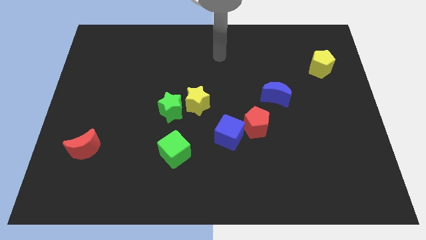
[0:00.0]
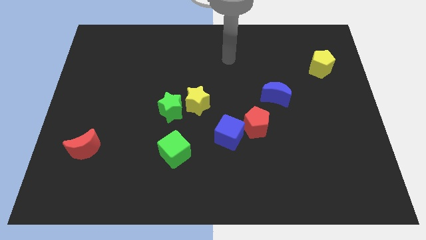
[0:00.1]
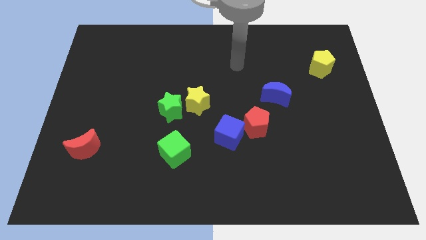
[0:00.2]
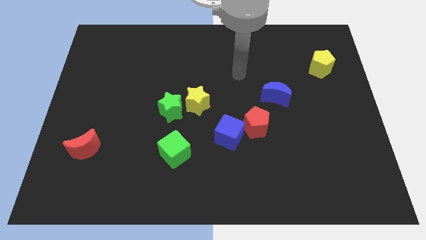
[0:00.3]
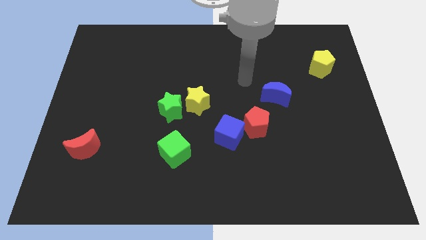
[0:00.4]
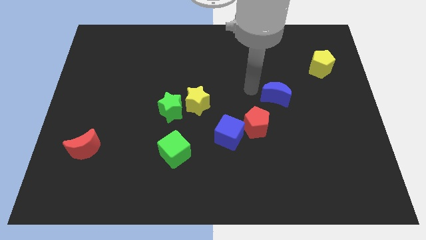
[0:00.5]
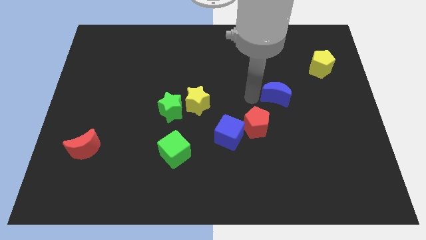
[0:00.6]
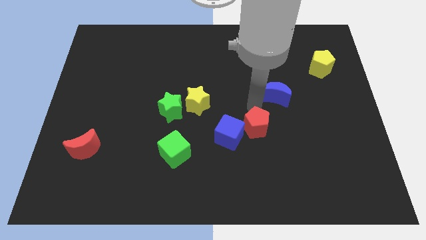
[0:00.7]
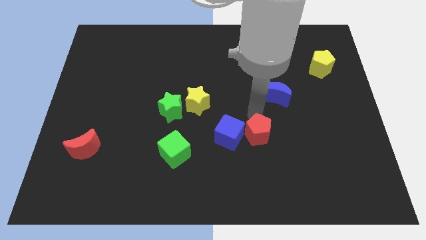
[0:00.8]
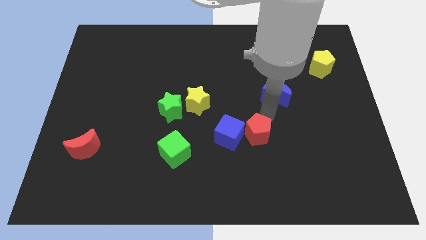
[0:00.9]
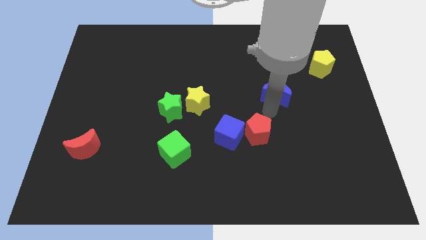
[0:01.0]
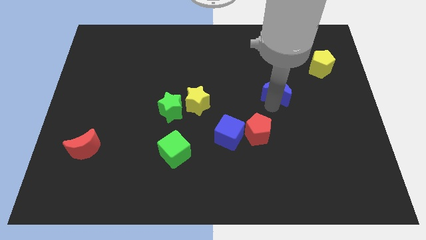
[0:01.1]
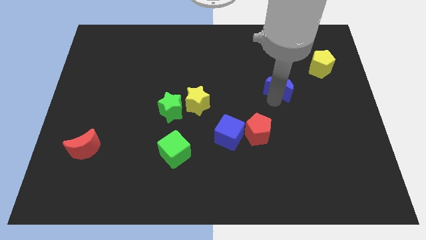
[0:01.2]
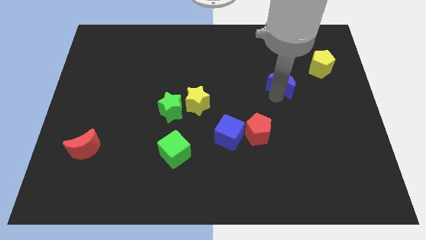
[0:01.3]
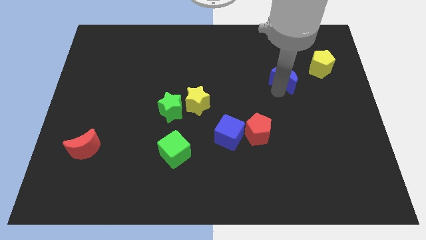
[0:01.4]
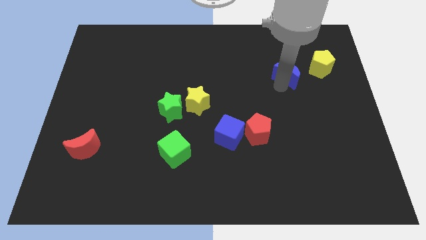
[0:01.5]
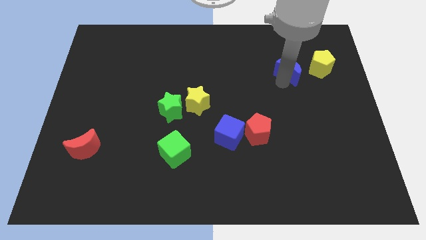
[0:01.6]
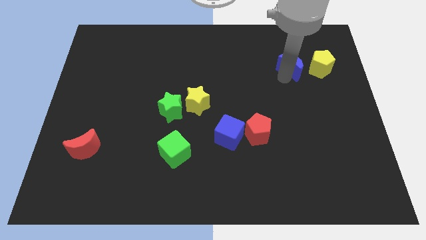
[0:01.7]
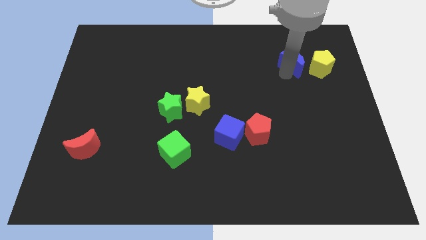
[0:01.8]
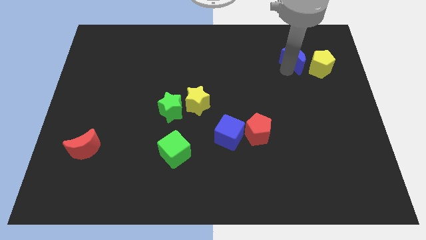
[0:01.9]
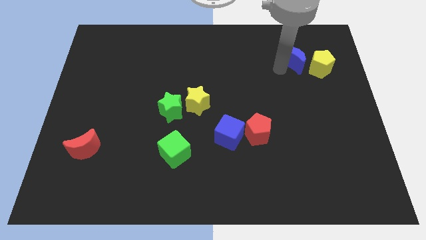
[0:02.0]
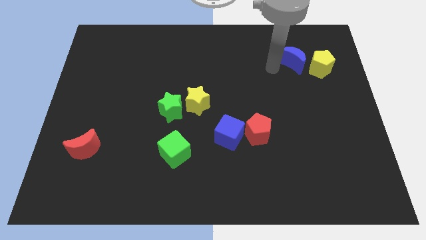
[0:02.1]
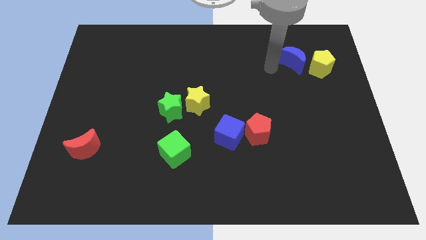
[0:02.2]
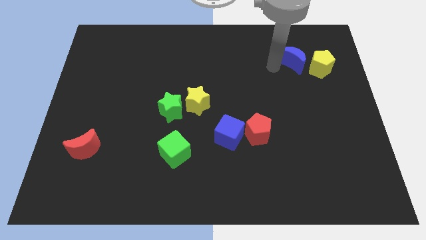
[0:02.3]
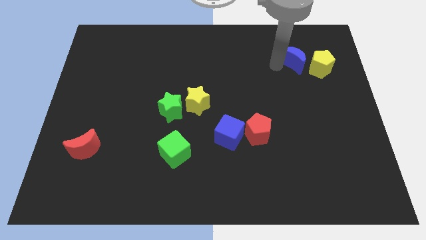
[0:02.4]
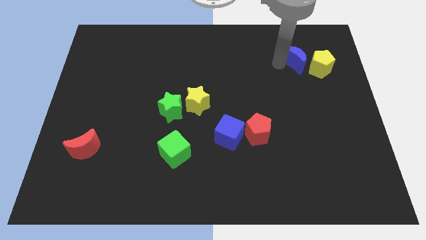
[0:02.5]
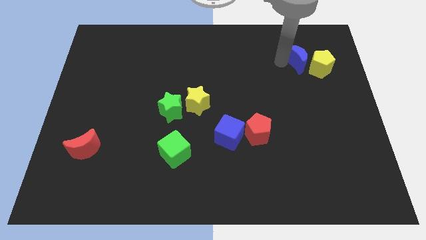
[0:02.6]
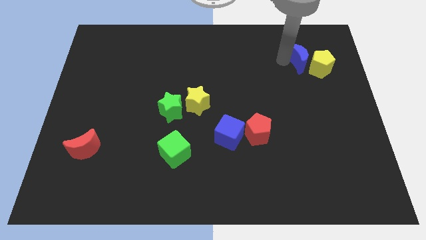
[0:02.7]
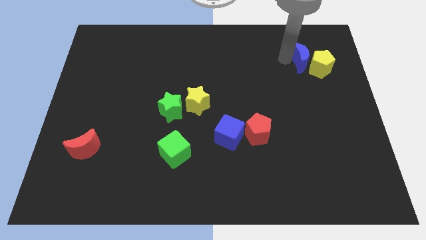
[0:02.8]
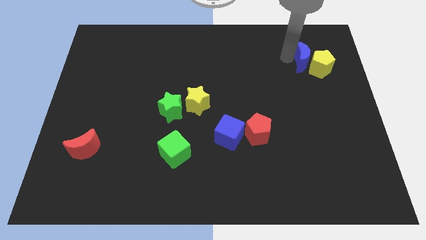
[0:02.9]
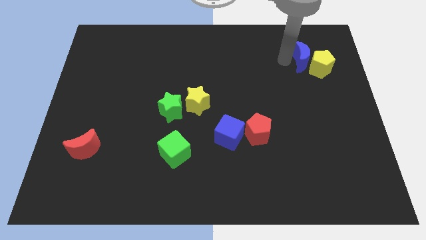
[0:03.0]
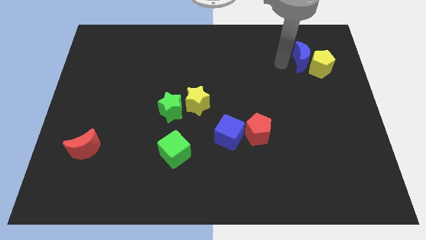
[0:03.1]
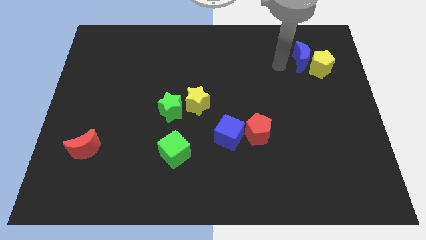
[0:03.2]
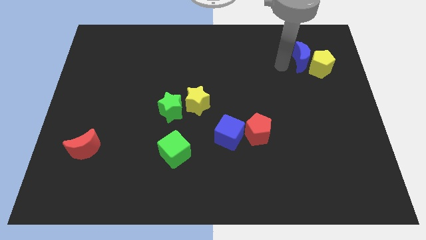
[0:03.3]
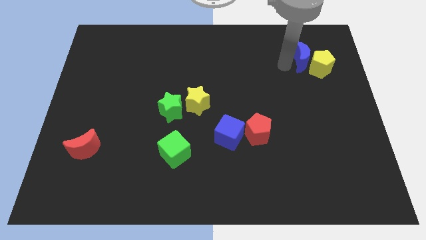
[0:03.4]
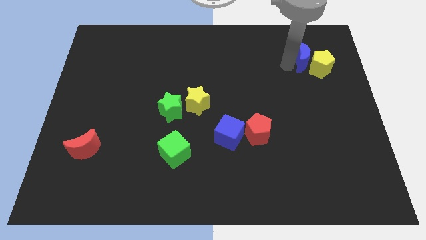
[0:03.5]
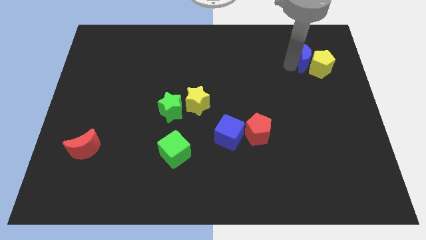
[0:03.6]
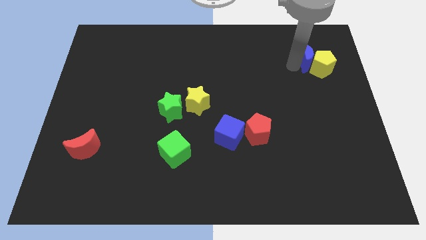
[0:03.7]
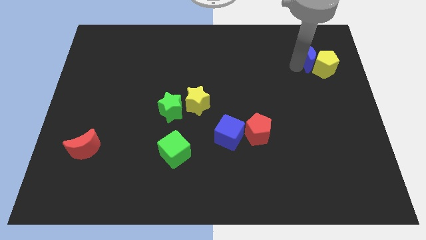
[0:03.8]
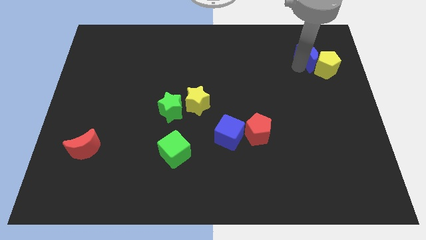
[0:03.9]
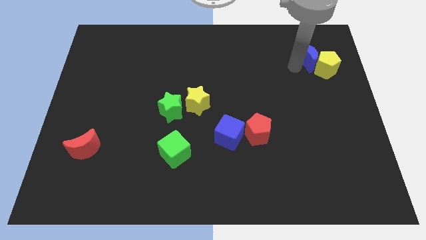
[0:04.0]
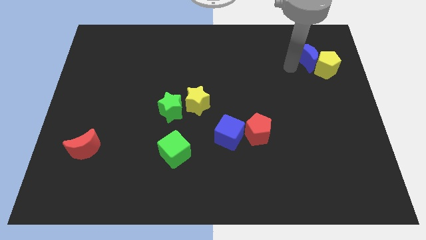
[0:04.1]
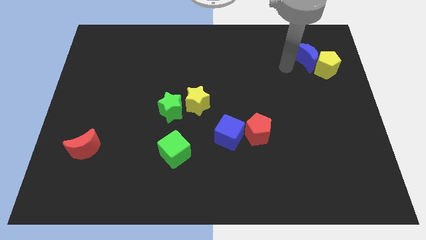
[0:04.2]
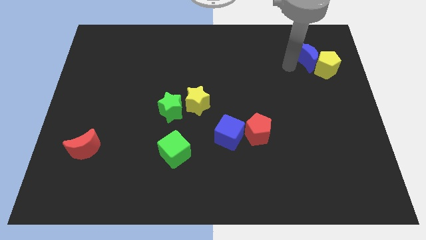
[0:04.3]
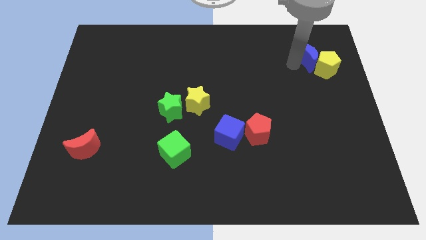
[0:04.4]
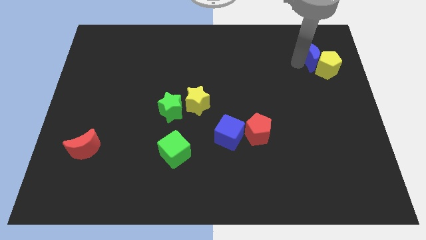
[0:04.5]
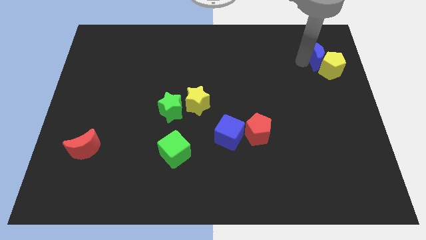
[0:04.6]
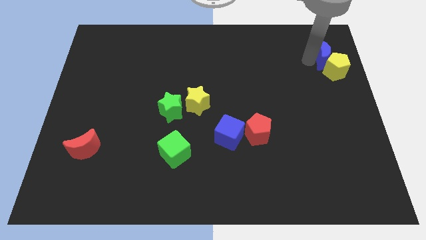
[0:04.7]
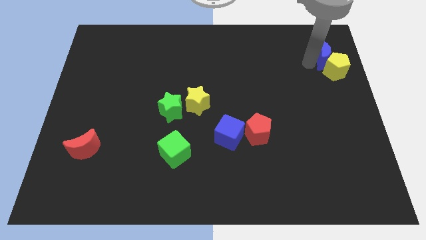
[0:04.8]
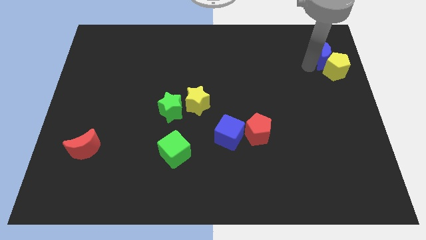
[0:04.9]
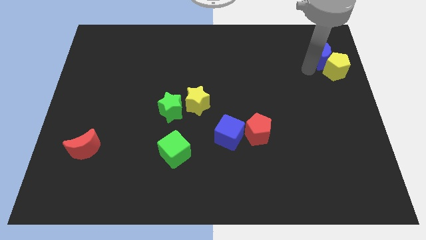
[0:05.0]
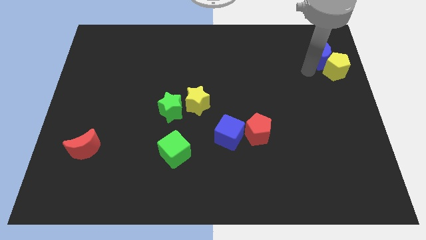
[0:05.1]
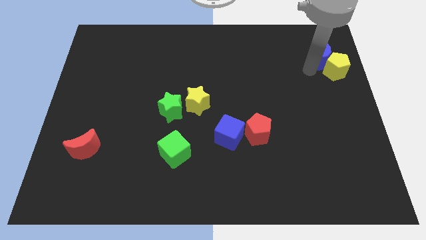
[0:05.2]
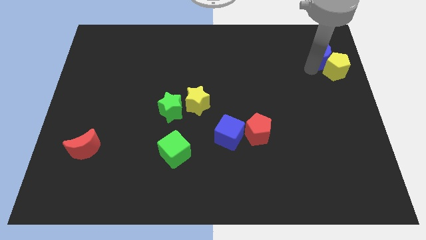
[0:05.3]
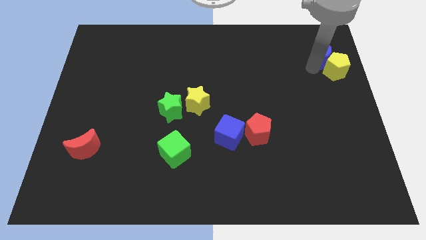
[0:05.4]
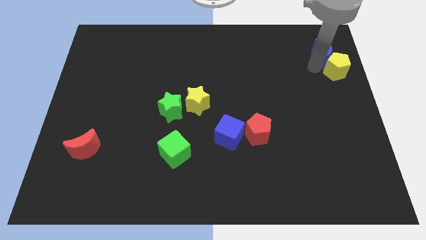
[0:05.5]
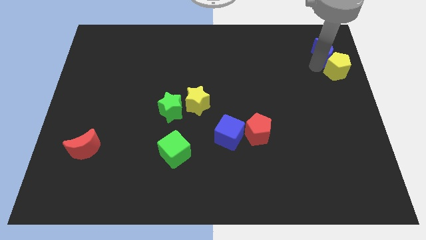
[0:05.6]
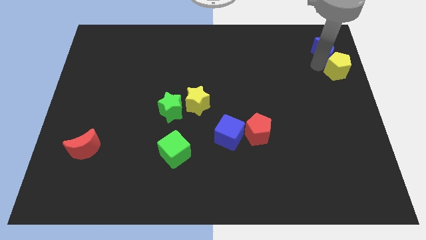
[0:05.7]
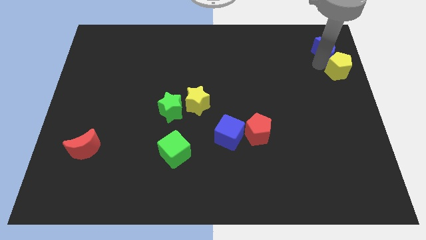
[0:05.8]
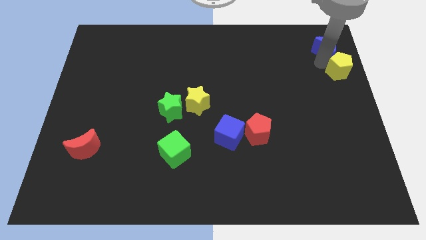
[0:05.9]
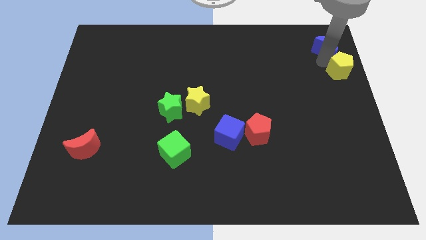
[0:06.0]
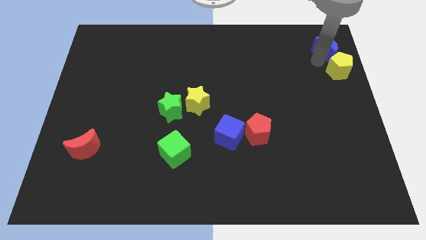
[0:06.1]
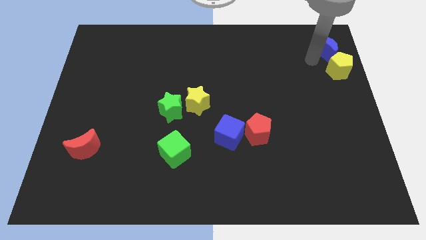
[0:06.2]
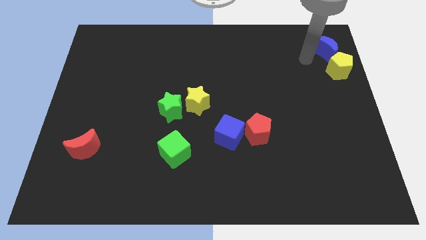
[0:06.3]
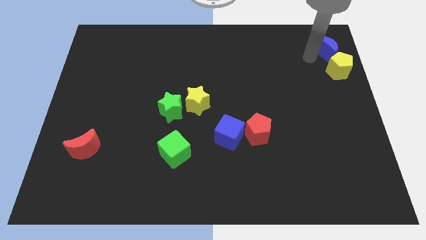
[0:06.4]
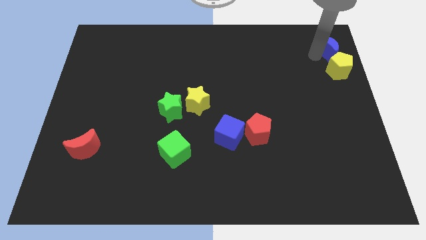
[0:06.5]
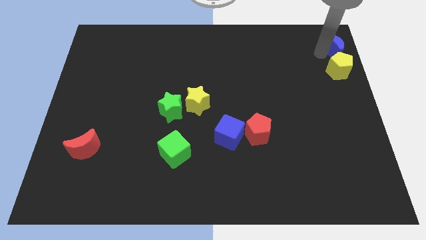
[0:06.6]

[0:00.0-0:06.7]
push the blue moon to the upper right corner
